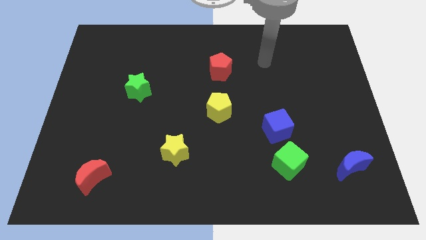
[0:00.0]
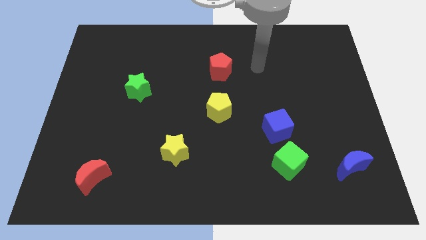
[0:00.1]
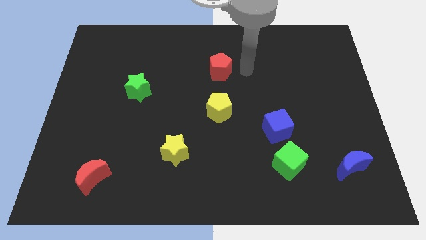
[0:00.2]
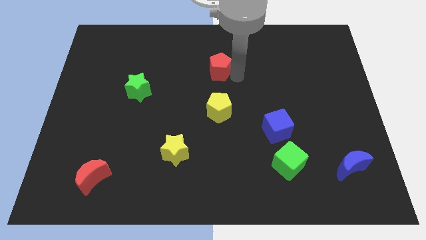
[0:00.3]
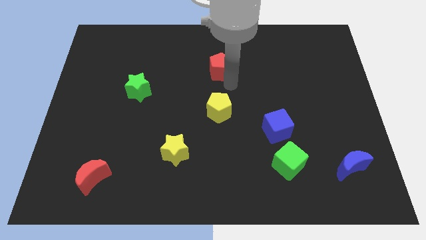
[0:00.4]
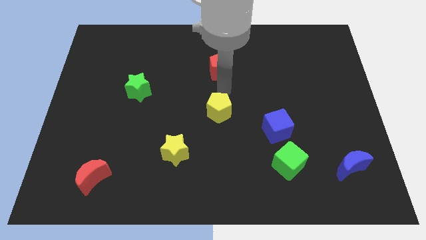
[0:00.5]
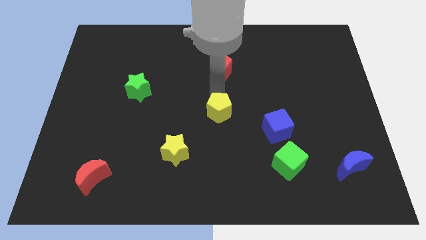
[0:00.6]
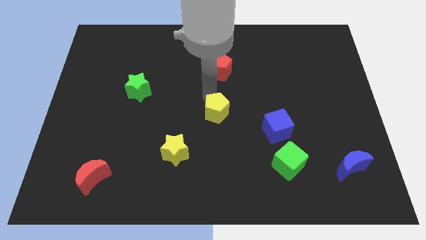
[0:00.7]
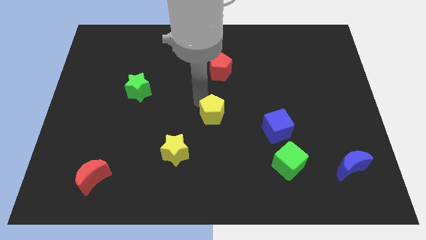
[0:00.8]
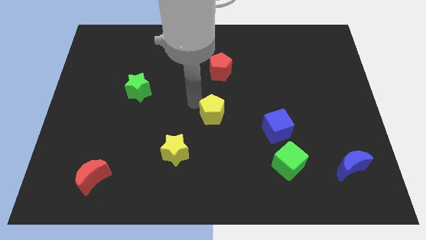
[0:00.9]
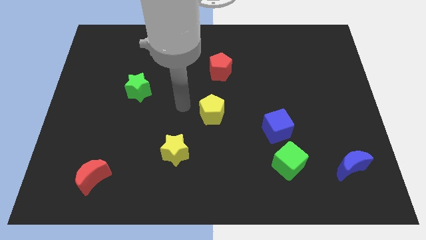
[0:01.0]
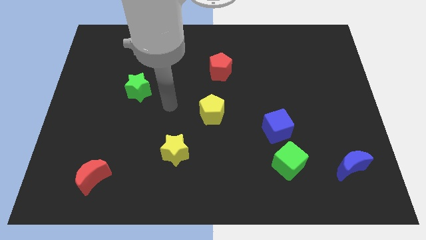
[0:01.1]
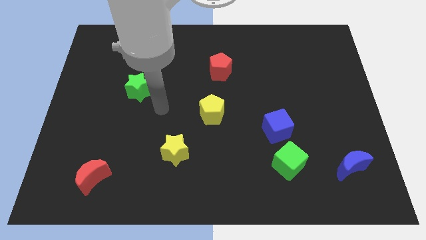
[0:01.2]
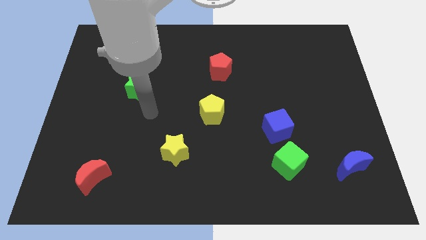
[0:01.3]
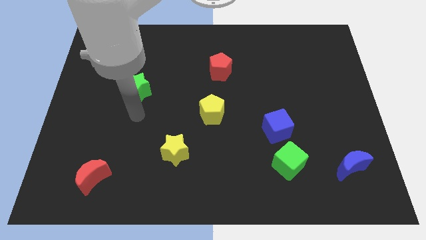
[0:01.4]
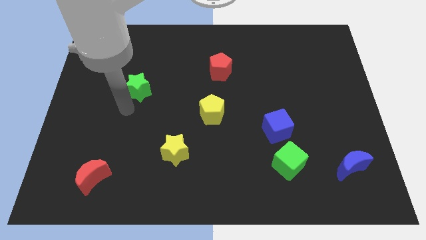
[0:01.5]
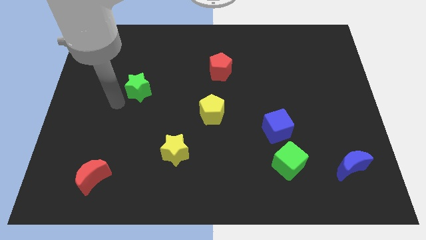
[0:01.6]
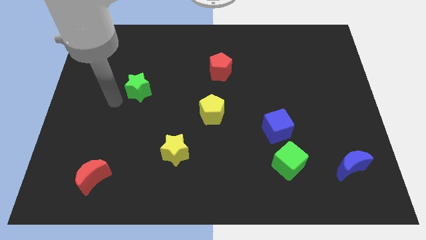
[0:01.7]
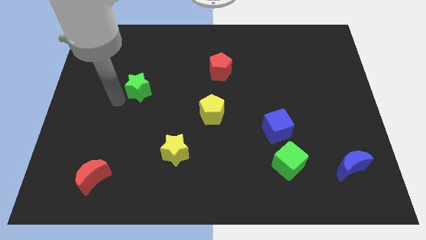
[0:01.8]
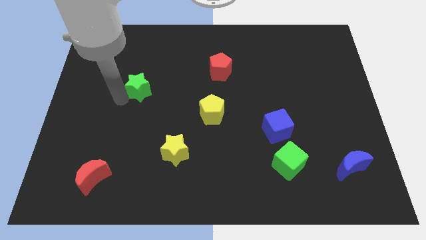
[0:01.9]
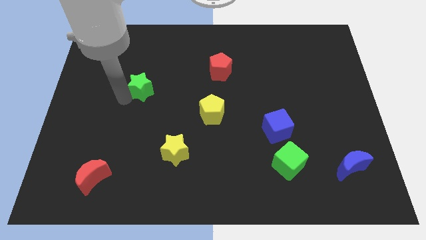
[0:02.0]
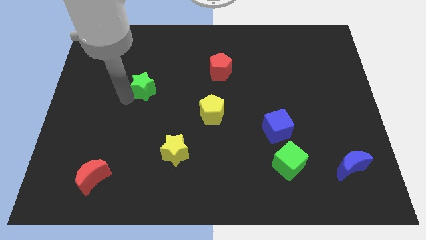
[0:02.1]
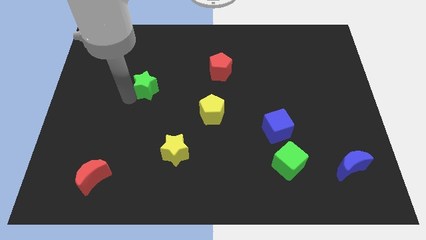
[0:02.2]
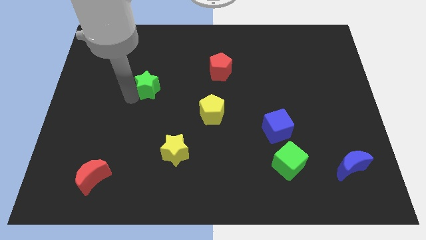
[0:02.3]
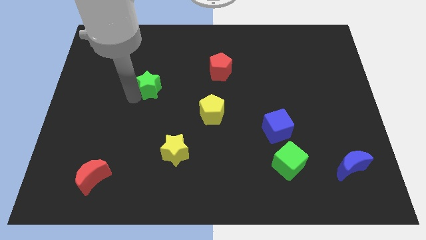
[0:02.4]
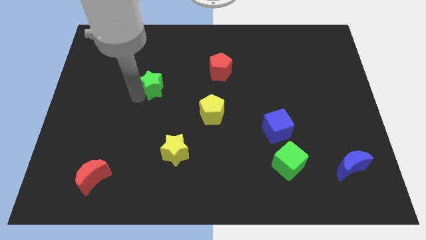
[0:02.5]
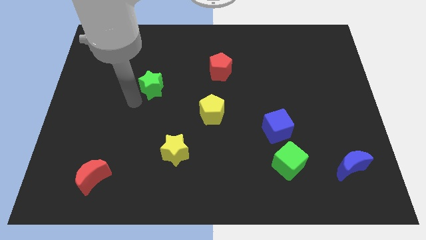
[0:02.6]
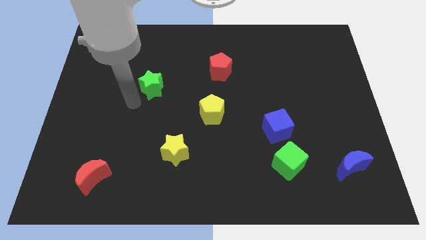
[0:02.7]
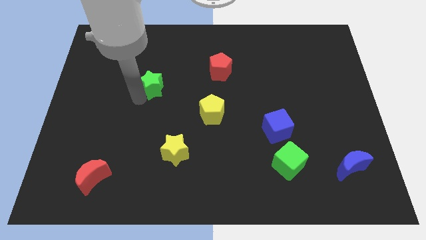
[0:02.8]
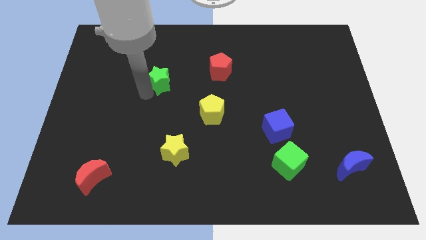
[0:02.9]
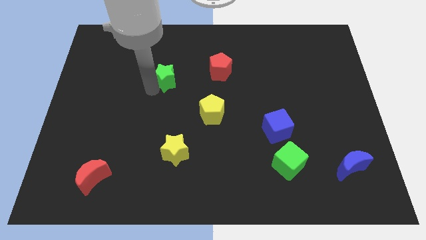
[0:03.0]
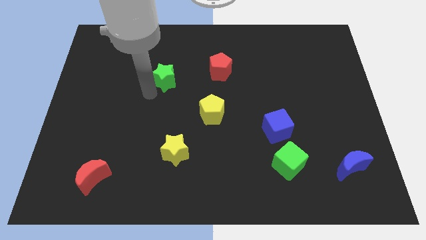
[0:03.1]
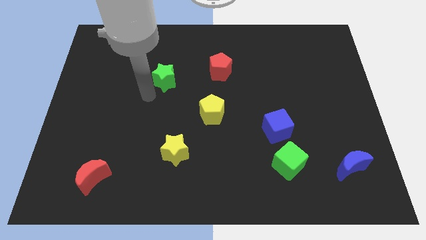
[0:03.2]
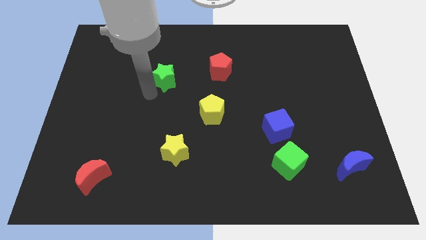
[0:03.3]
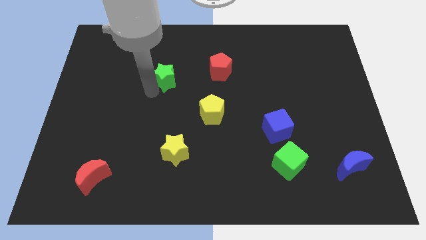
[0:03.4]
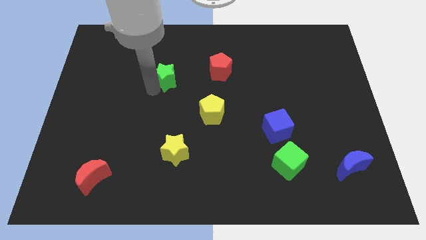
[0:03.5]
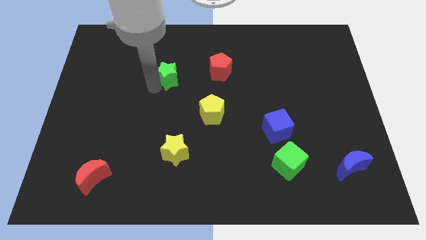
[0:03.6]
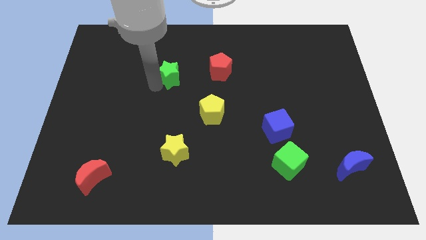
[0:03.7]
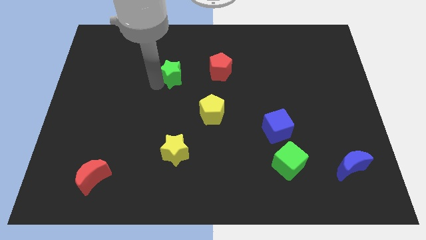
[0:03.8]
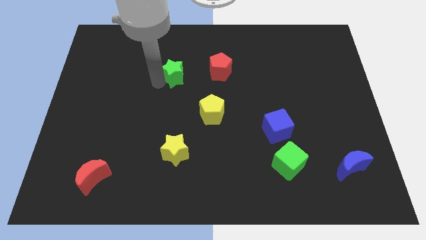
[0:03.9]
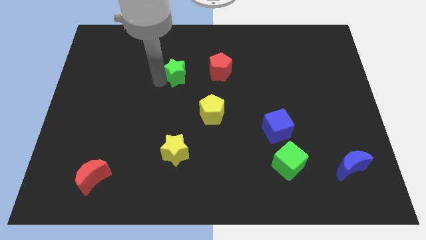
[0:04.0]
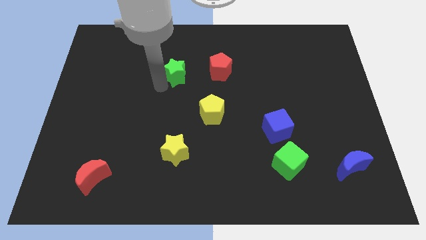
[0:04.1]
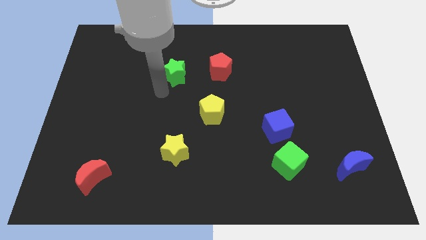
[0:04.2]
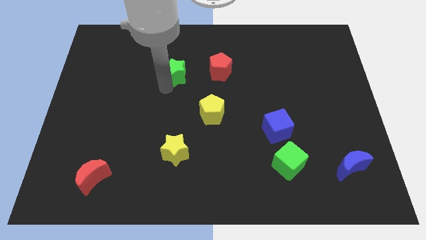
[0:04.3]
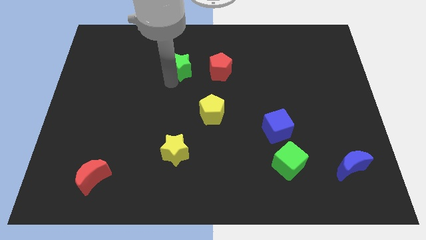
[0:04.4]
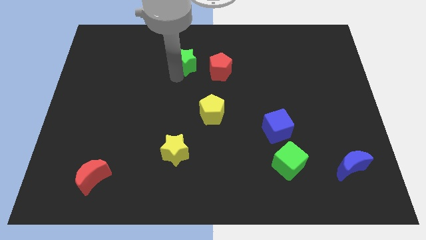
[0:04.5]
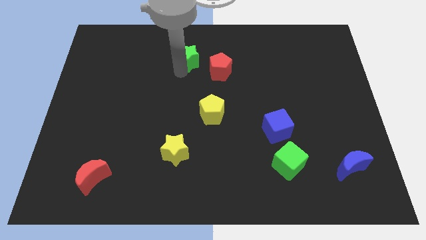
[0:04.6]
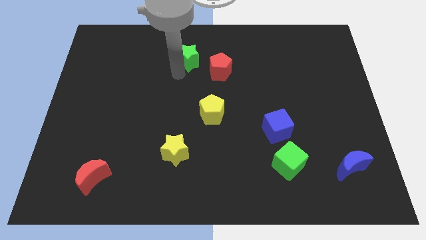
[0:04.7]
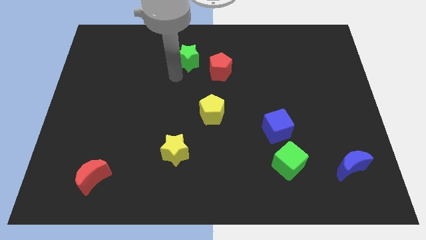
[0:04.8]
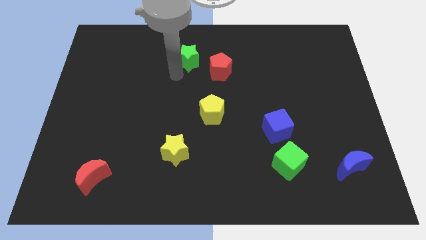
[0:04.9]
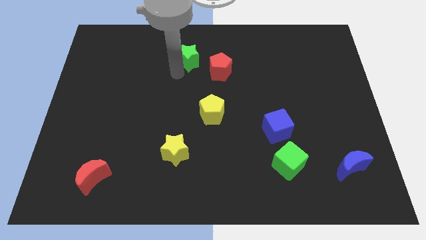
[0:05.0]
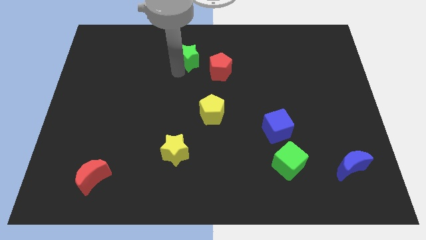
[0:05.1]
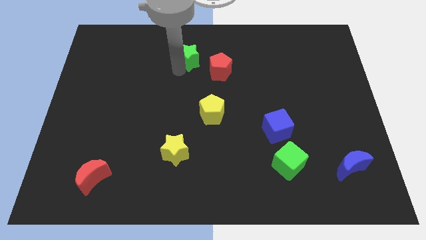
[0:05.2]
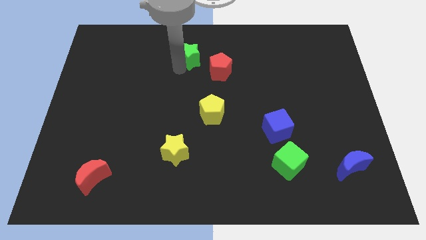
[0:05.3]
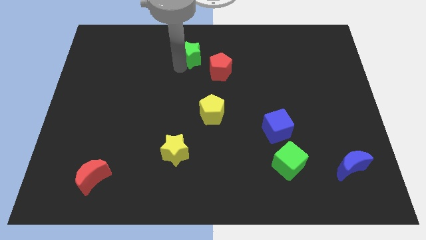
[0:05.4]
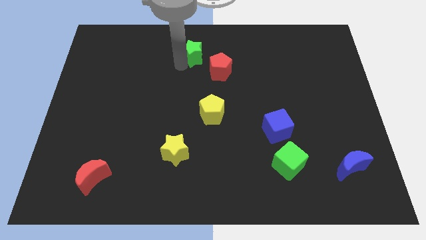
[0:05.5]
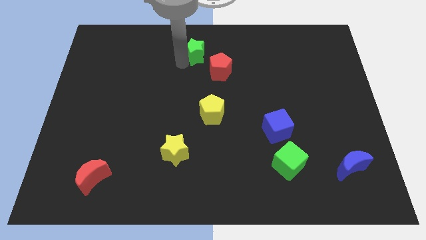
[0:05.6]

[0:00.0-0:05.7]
put the green star to the top

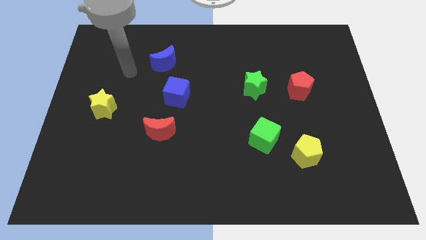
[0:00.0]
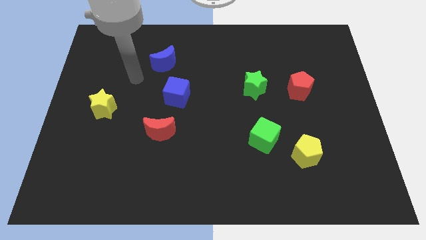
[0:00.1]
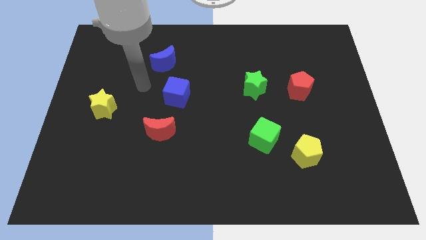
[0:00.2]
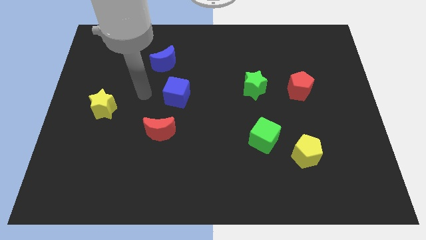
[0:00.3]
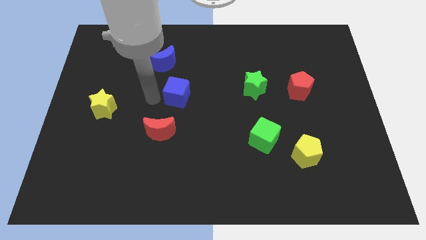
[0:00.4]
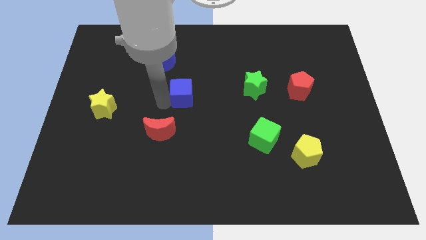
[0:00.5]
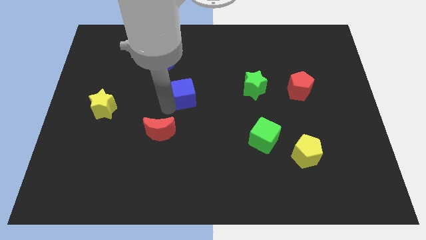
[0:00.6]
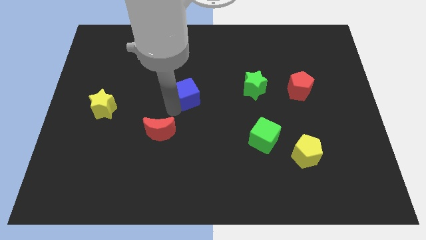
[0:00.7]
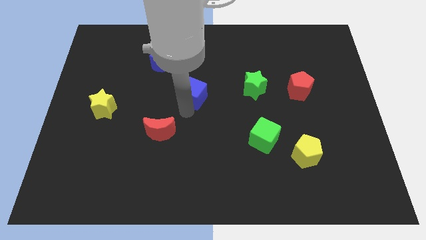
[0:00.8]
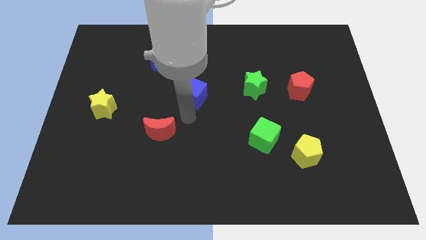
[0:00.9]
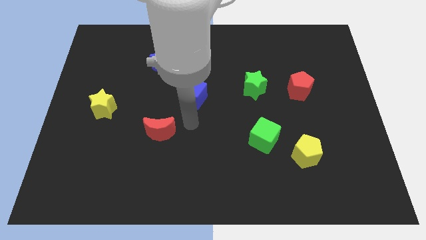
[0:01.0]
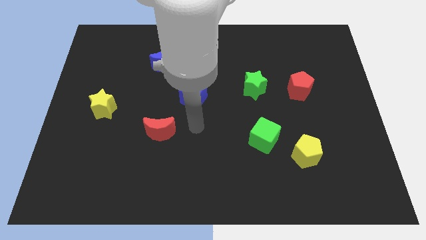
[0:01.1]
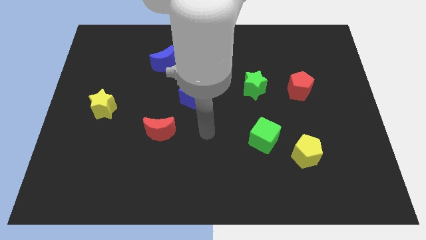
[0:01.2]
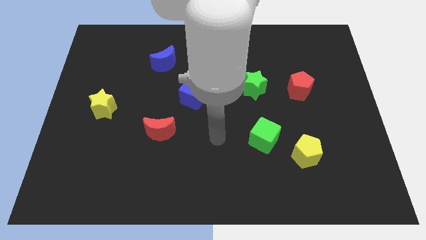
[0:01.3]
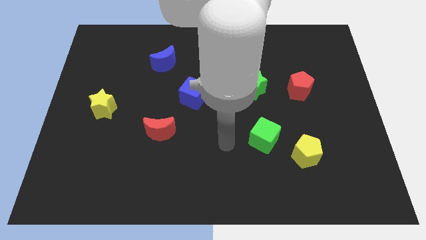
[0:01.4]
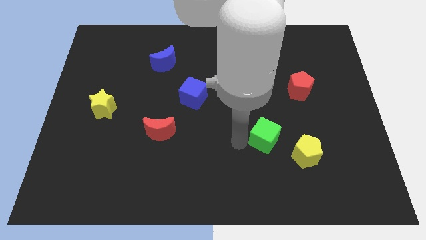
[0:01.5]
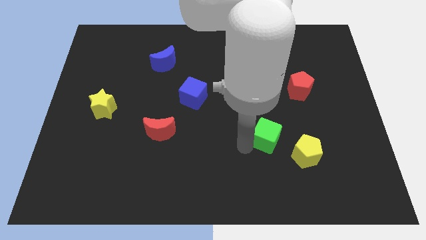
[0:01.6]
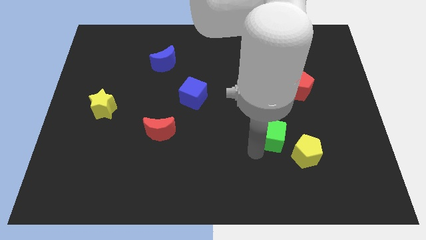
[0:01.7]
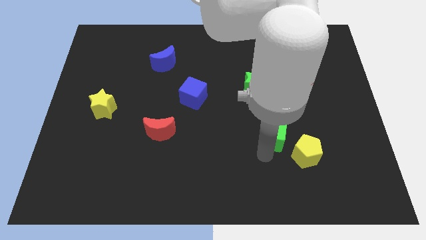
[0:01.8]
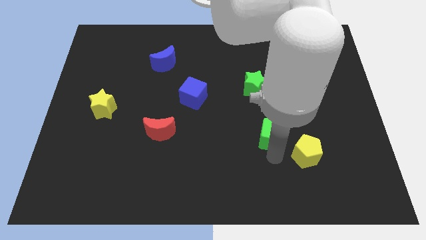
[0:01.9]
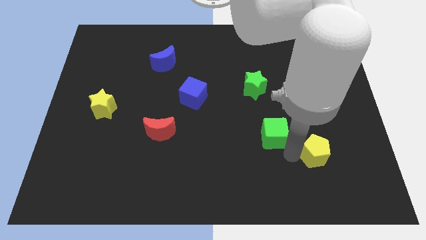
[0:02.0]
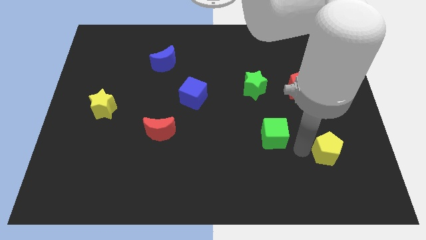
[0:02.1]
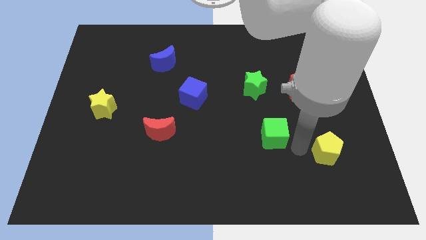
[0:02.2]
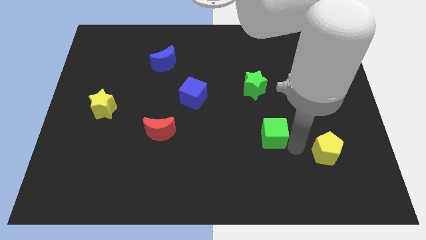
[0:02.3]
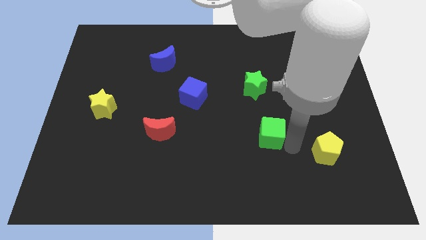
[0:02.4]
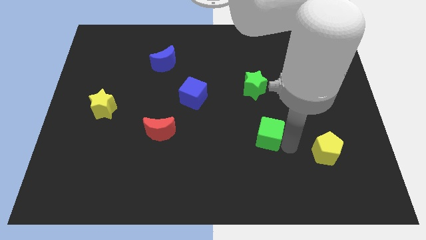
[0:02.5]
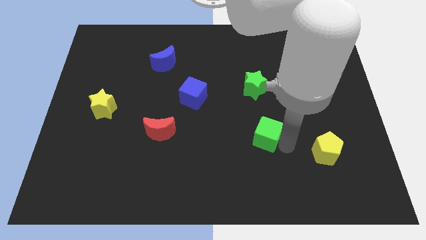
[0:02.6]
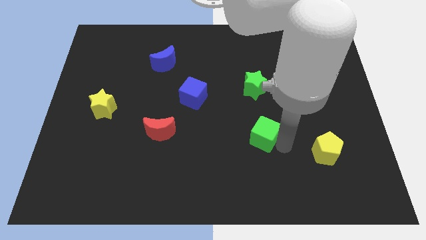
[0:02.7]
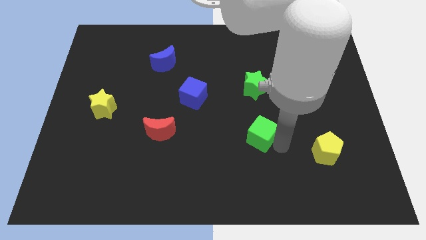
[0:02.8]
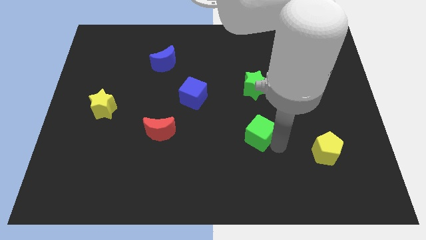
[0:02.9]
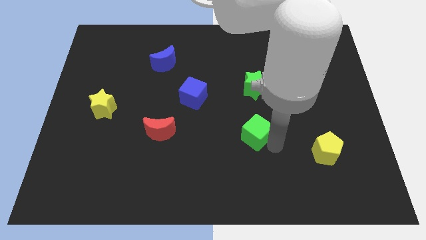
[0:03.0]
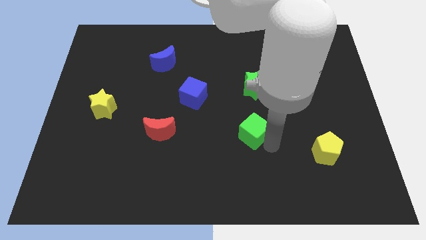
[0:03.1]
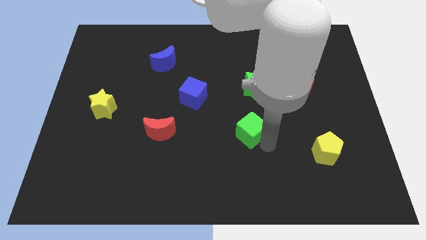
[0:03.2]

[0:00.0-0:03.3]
slide the green cube to the middle
